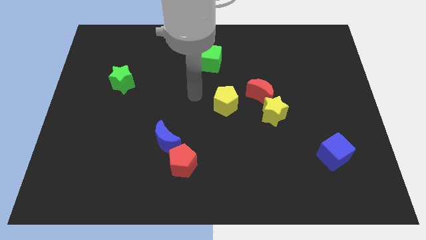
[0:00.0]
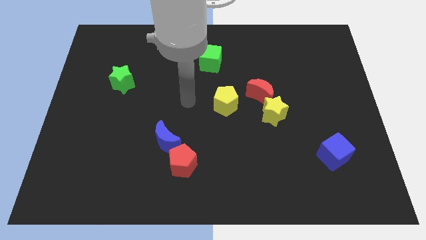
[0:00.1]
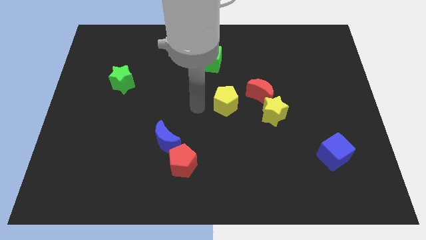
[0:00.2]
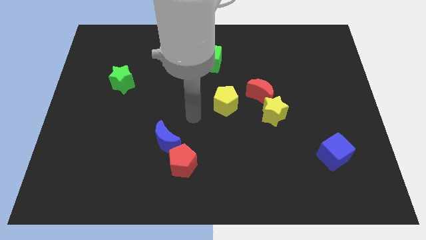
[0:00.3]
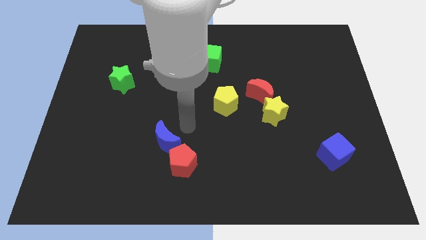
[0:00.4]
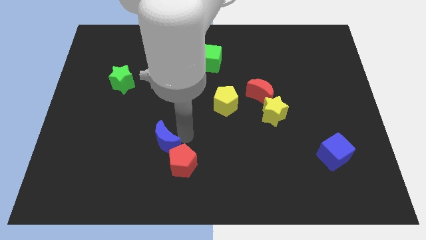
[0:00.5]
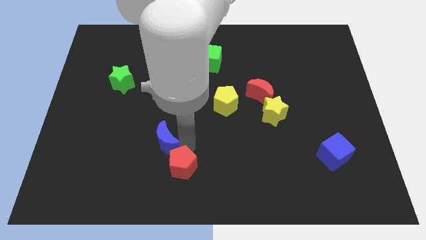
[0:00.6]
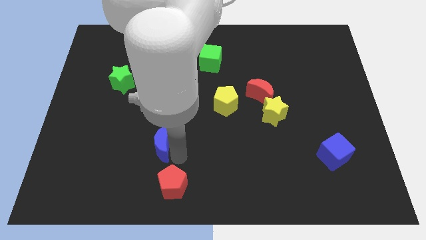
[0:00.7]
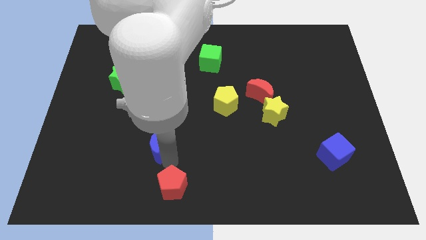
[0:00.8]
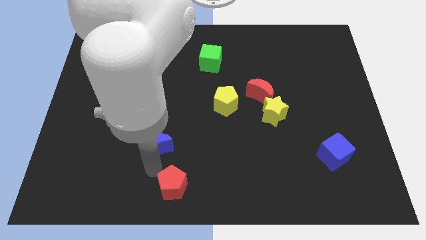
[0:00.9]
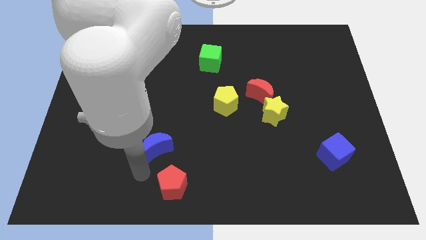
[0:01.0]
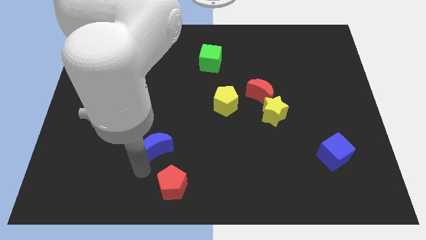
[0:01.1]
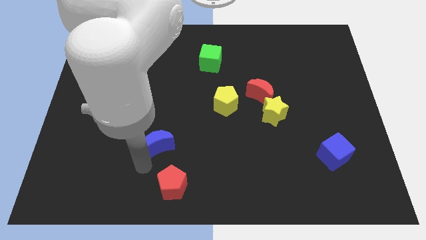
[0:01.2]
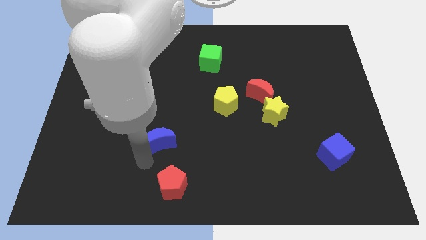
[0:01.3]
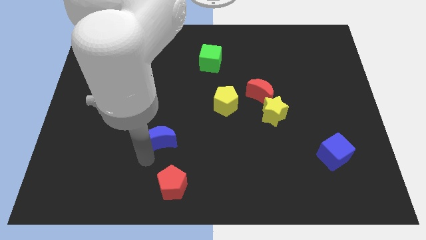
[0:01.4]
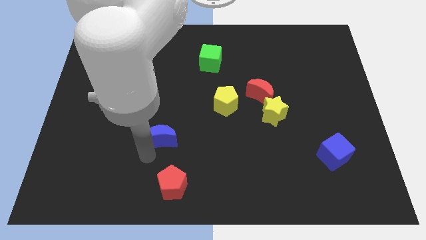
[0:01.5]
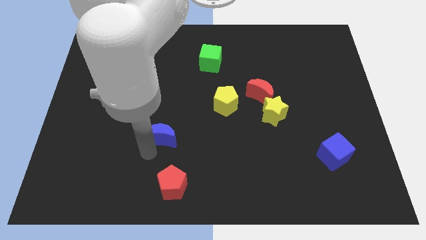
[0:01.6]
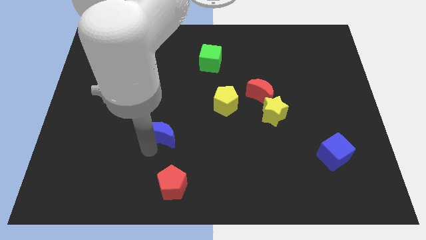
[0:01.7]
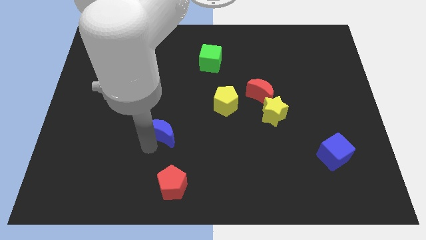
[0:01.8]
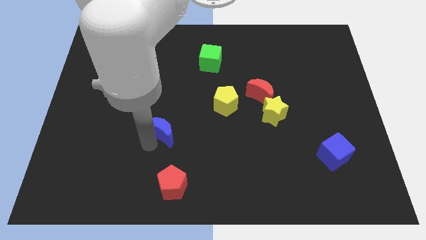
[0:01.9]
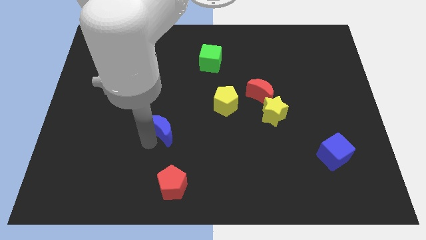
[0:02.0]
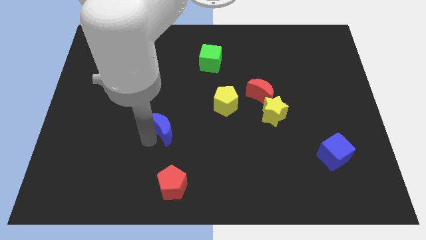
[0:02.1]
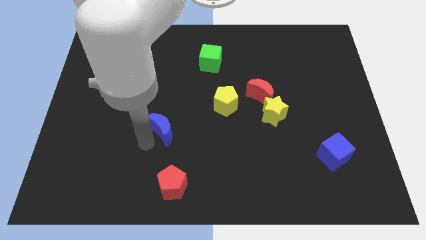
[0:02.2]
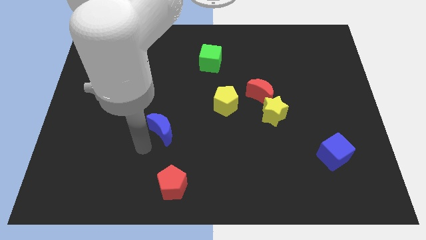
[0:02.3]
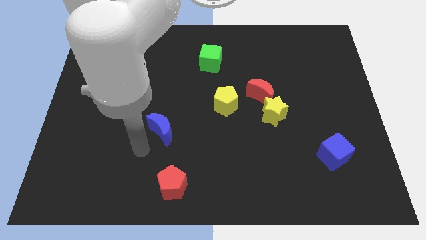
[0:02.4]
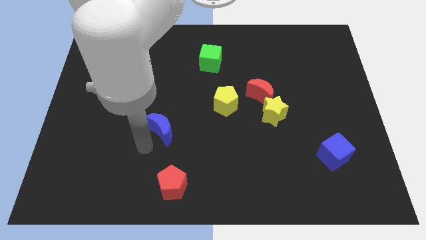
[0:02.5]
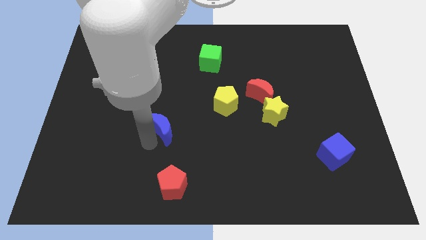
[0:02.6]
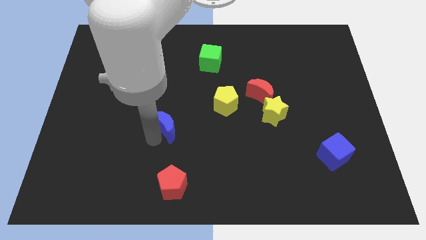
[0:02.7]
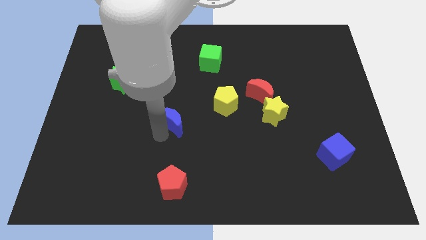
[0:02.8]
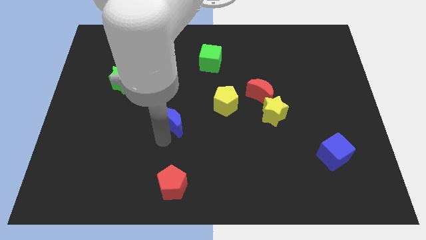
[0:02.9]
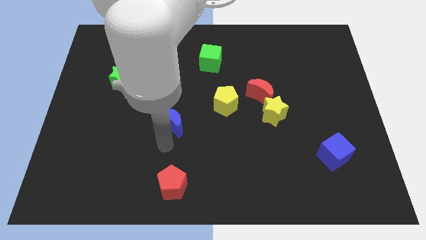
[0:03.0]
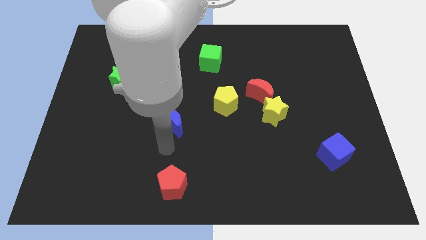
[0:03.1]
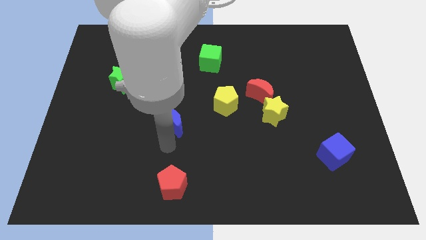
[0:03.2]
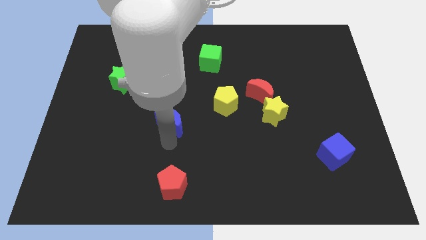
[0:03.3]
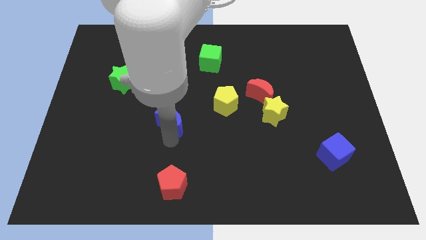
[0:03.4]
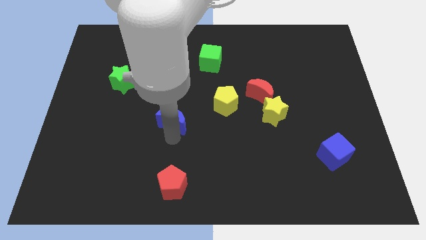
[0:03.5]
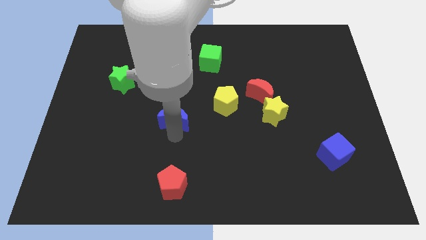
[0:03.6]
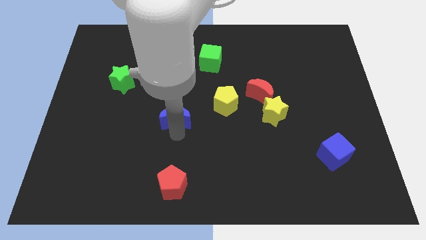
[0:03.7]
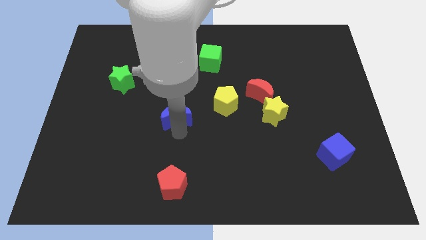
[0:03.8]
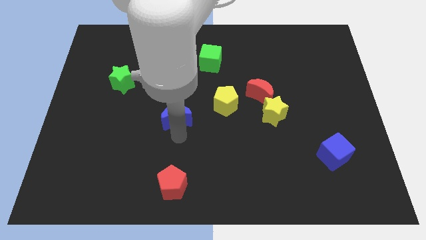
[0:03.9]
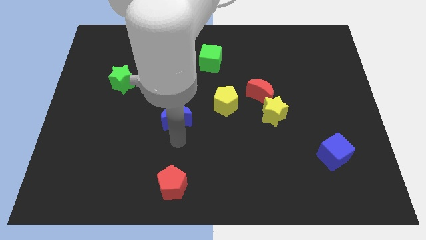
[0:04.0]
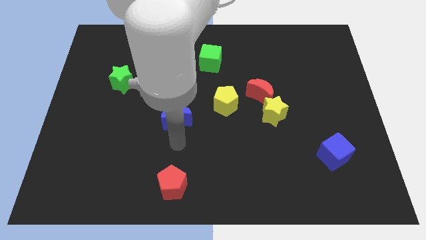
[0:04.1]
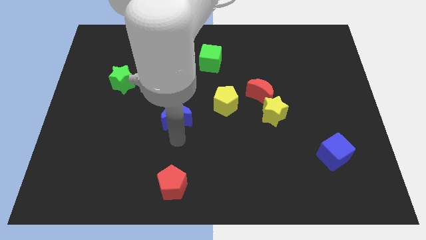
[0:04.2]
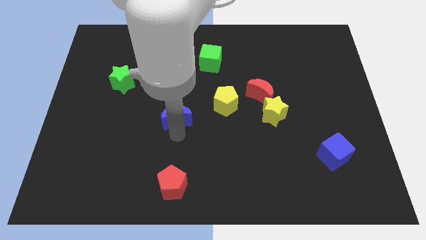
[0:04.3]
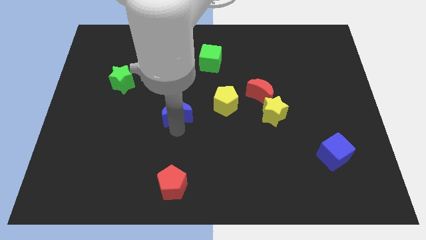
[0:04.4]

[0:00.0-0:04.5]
move the blue moon slightly up

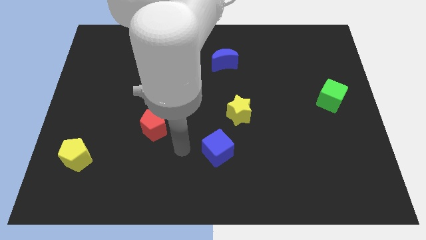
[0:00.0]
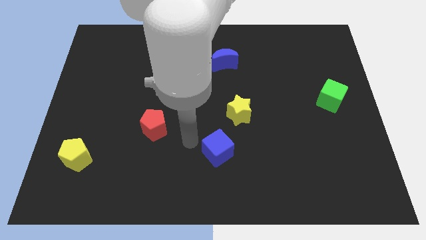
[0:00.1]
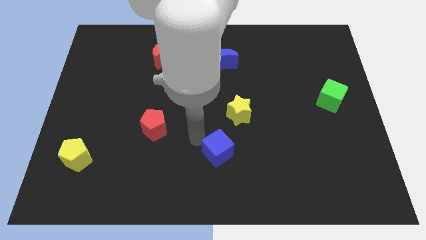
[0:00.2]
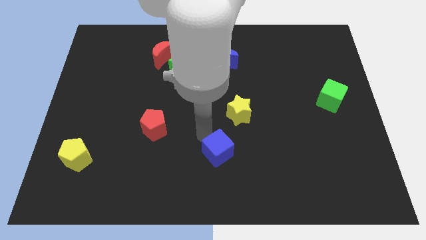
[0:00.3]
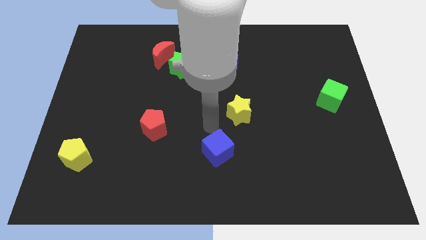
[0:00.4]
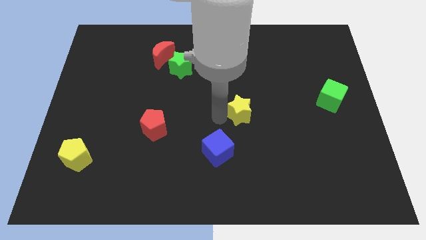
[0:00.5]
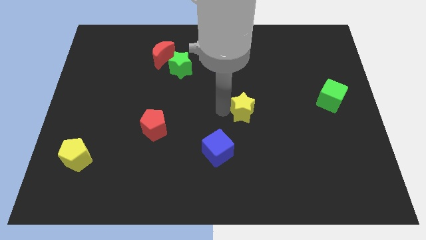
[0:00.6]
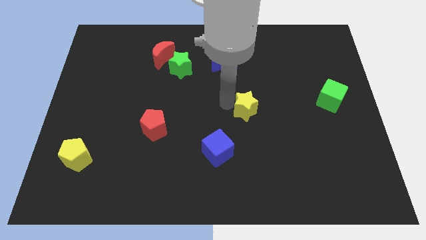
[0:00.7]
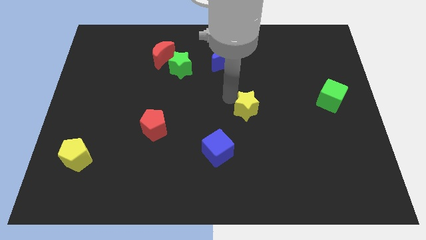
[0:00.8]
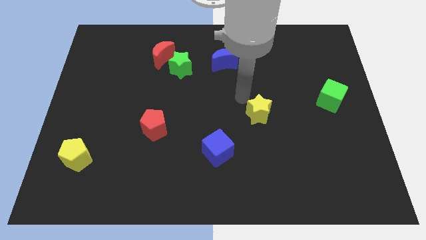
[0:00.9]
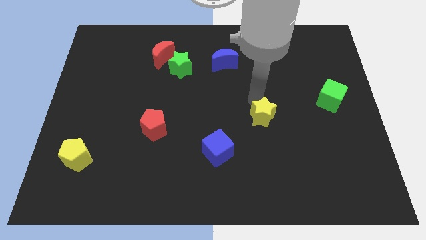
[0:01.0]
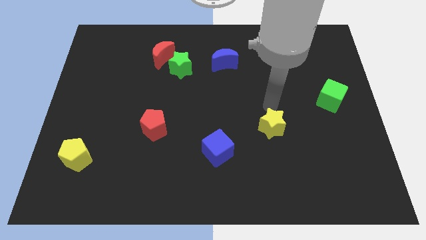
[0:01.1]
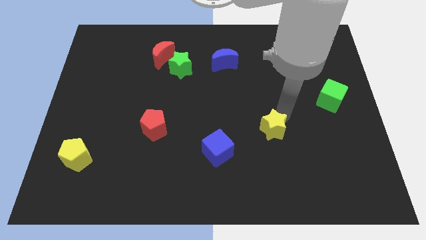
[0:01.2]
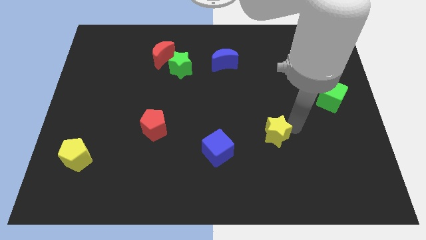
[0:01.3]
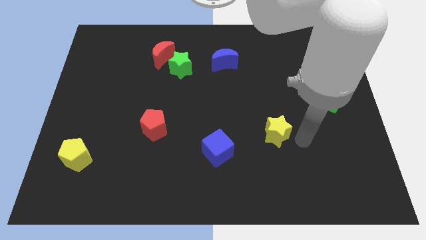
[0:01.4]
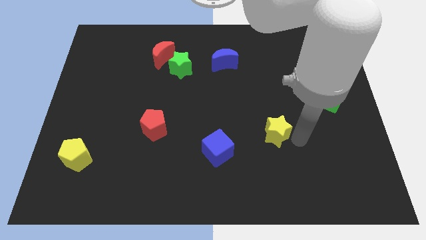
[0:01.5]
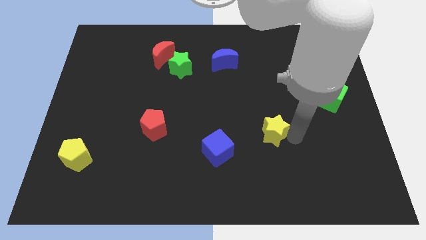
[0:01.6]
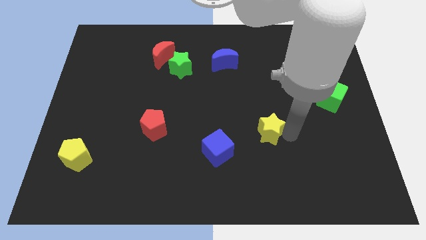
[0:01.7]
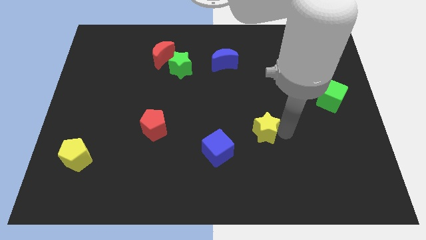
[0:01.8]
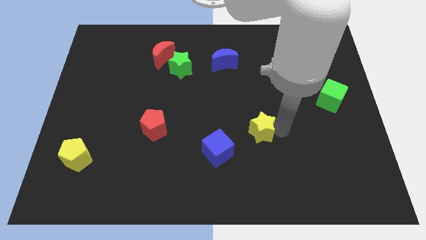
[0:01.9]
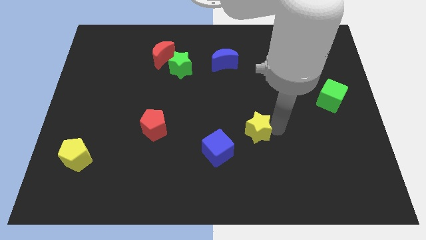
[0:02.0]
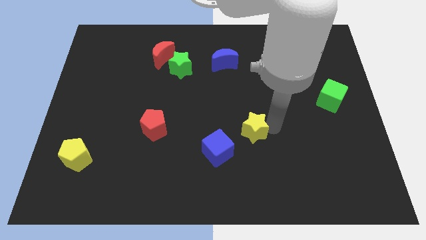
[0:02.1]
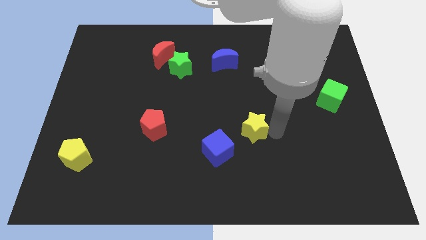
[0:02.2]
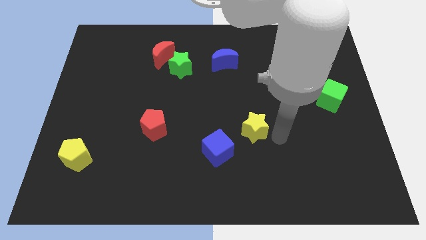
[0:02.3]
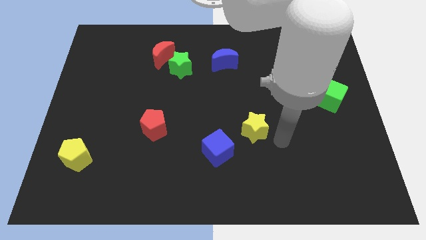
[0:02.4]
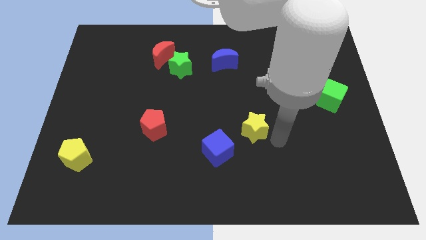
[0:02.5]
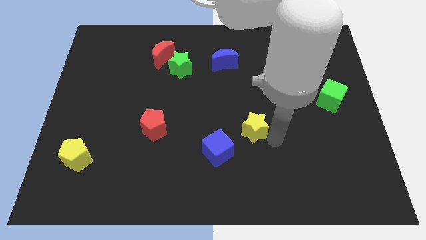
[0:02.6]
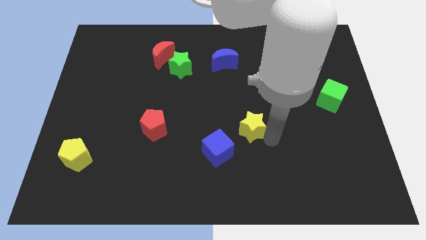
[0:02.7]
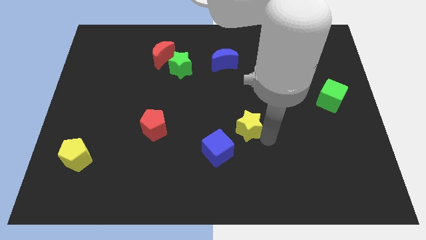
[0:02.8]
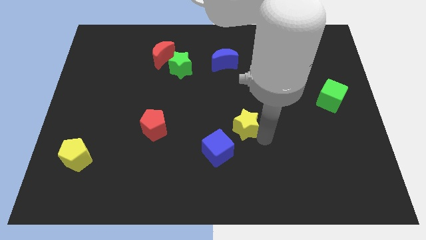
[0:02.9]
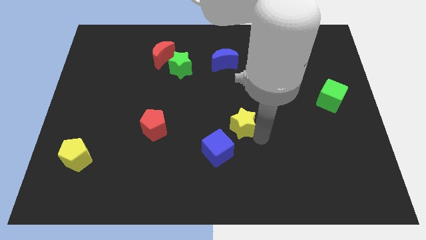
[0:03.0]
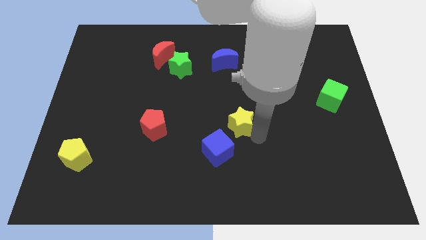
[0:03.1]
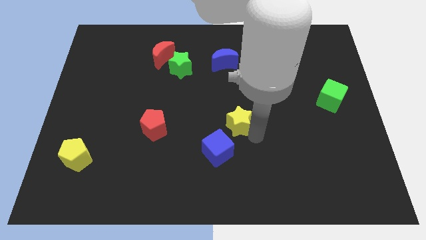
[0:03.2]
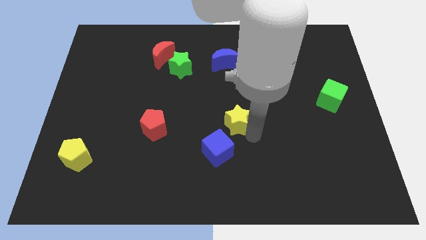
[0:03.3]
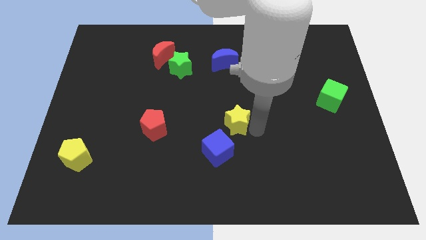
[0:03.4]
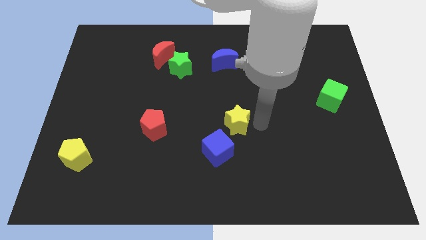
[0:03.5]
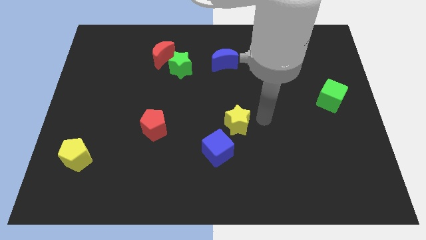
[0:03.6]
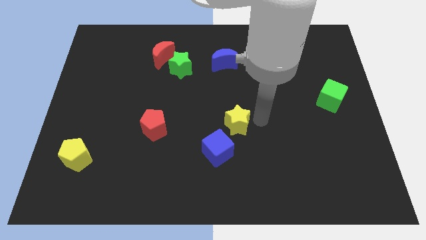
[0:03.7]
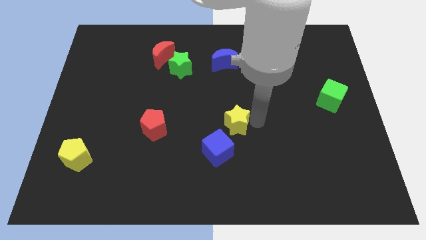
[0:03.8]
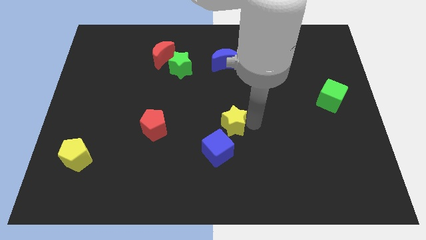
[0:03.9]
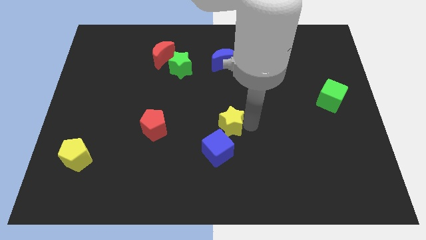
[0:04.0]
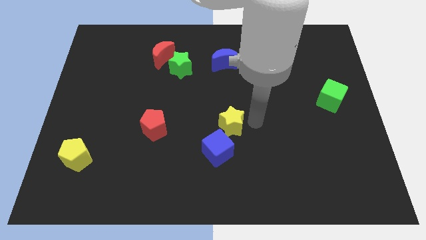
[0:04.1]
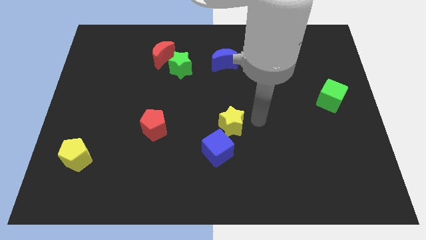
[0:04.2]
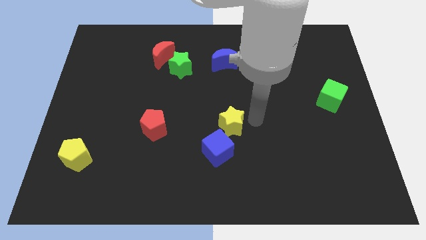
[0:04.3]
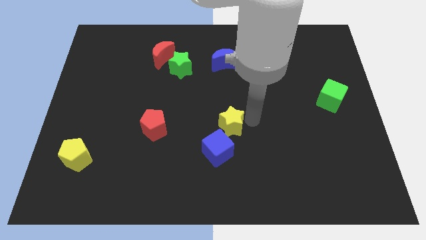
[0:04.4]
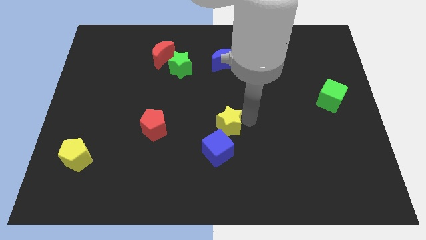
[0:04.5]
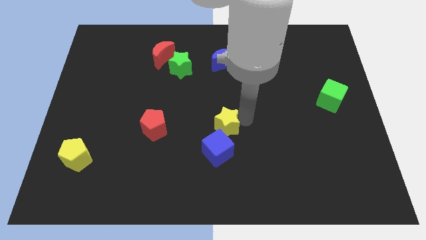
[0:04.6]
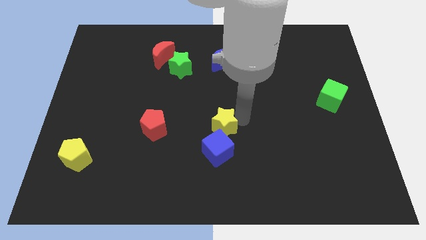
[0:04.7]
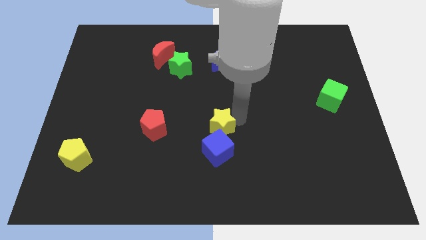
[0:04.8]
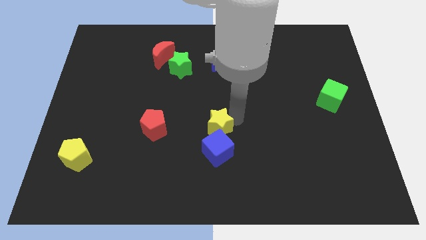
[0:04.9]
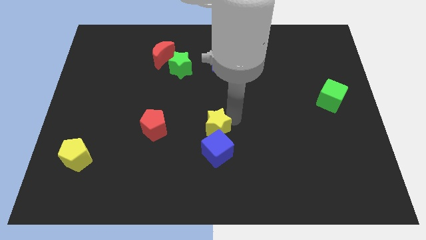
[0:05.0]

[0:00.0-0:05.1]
slightly push the yellow star down and to the left
